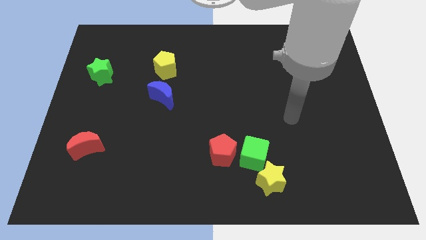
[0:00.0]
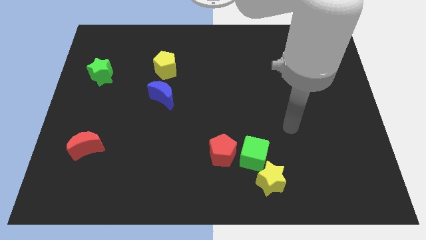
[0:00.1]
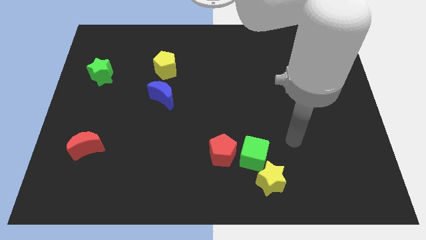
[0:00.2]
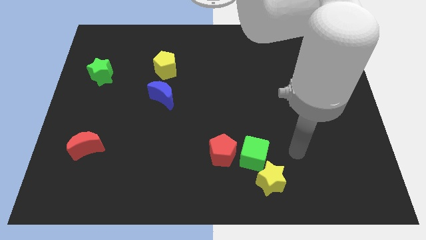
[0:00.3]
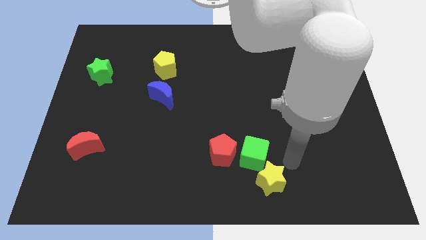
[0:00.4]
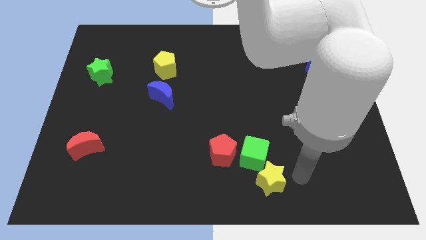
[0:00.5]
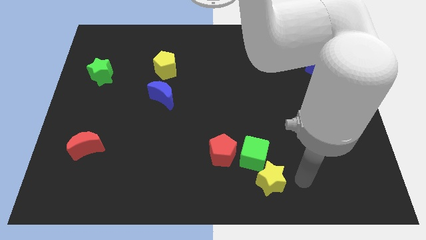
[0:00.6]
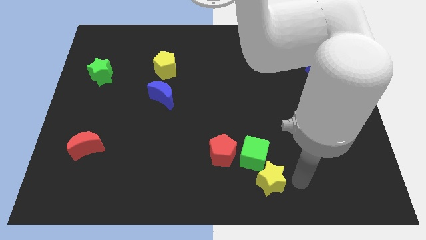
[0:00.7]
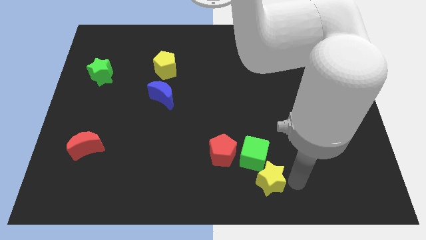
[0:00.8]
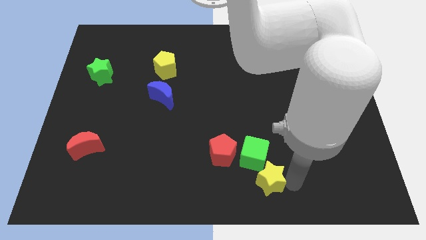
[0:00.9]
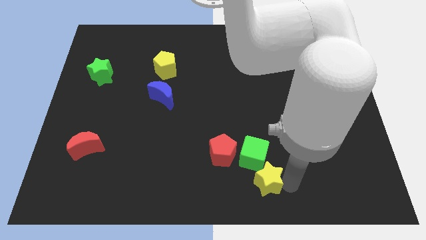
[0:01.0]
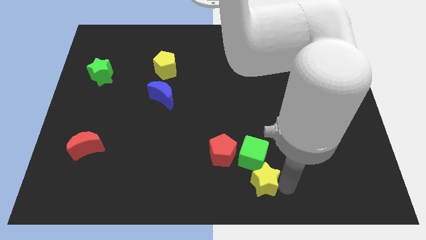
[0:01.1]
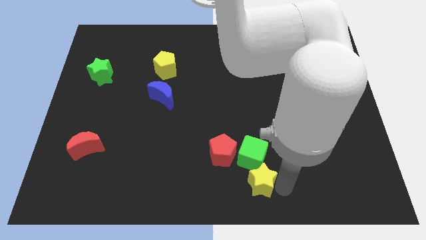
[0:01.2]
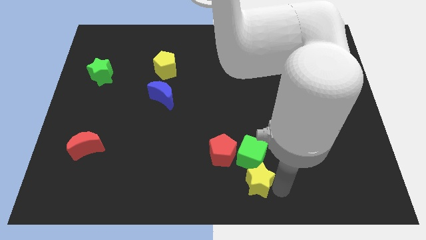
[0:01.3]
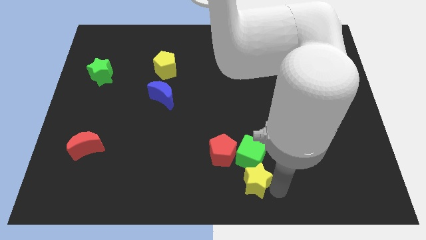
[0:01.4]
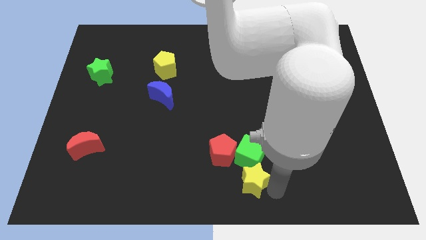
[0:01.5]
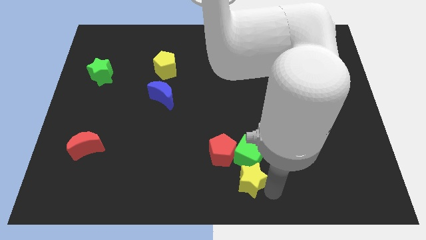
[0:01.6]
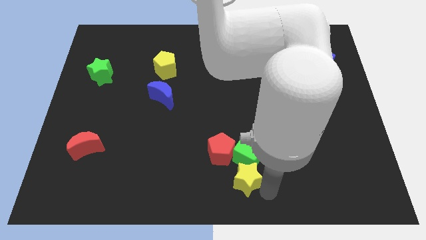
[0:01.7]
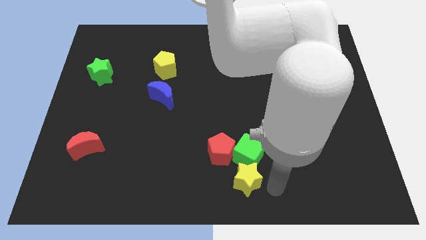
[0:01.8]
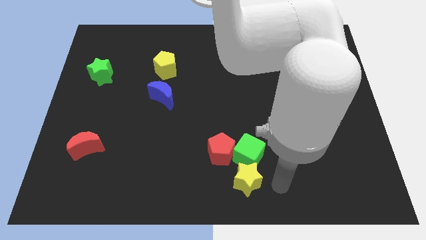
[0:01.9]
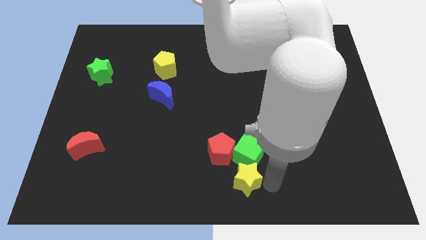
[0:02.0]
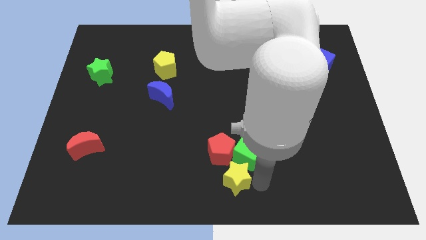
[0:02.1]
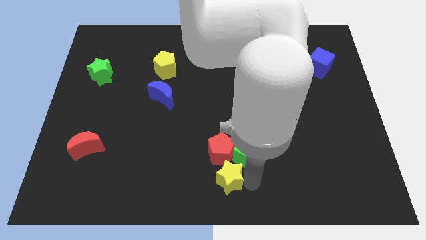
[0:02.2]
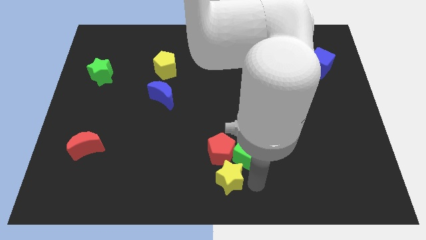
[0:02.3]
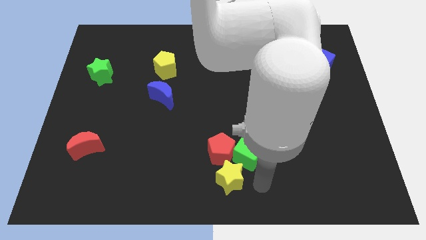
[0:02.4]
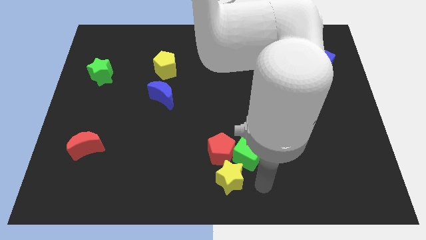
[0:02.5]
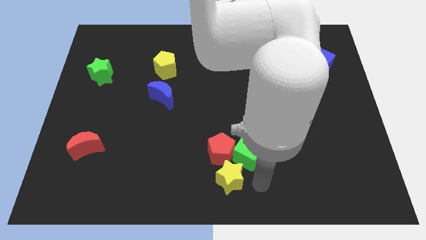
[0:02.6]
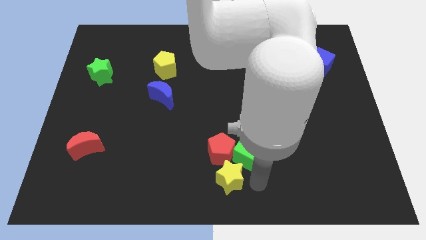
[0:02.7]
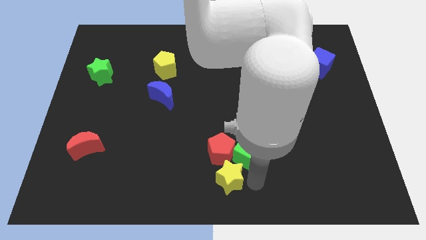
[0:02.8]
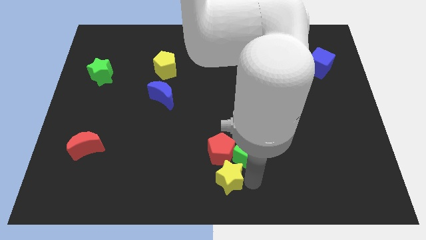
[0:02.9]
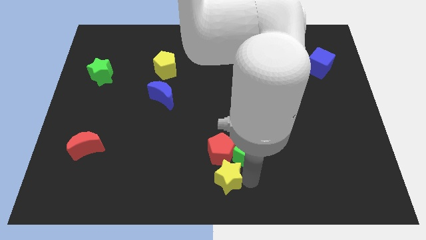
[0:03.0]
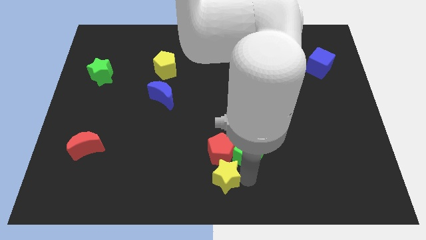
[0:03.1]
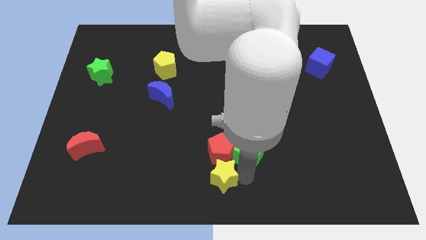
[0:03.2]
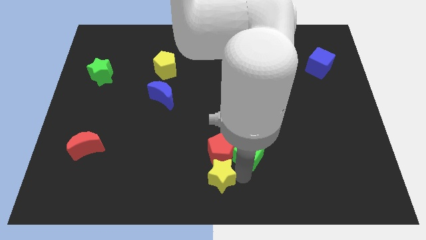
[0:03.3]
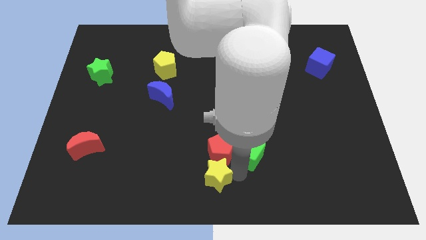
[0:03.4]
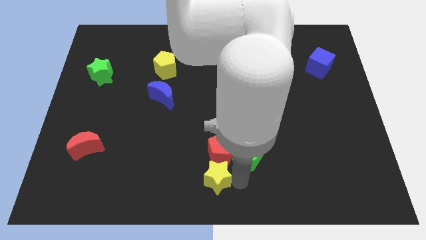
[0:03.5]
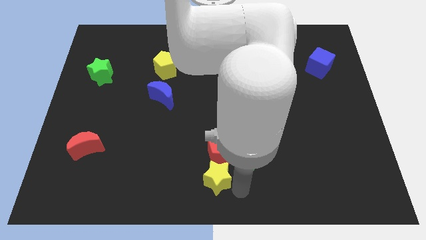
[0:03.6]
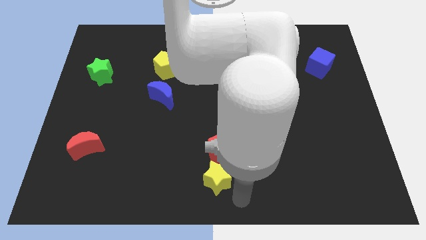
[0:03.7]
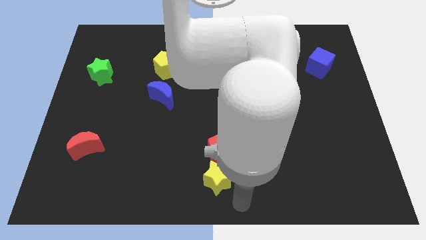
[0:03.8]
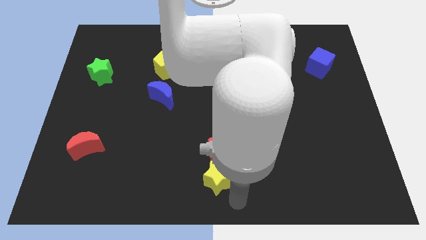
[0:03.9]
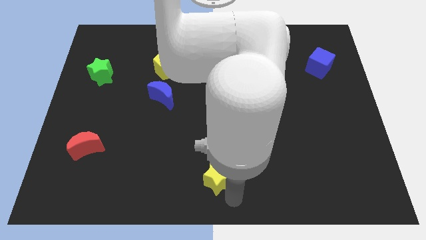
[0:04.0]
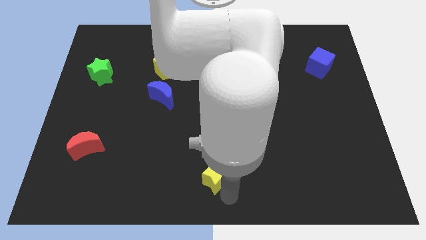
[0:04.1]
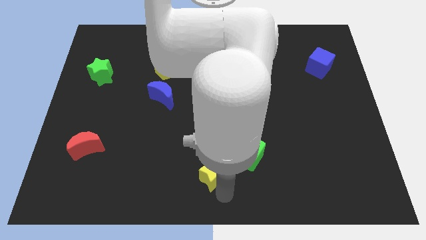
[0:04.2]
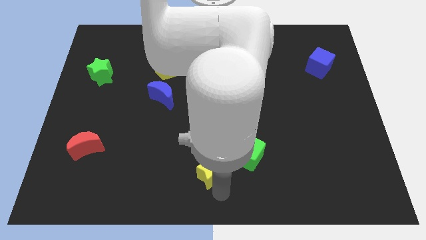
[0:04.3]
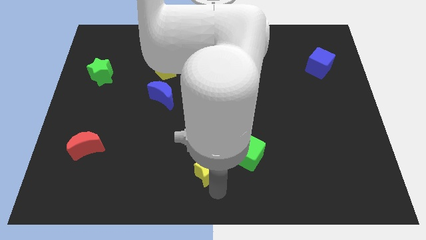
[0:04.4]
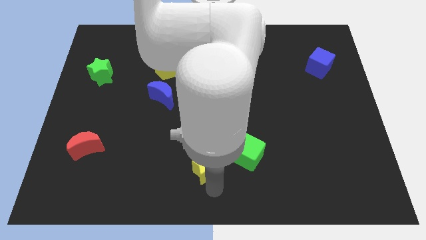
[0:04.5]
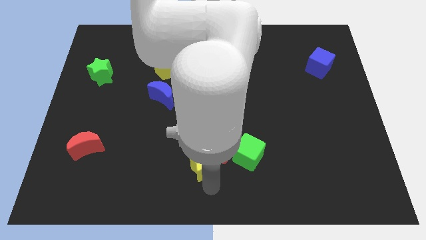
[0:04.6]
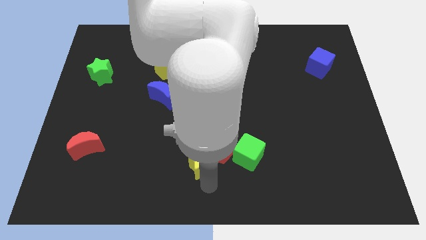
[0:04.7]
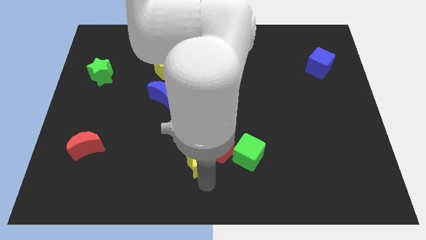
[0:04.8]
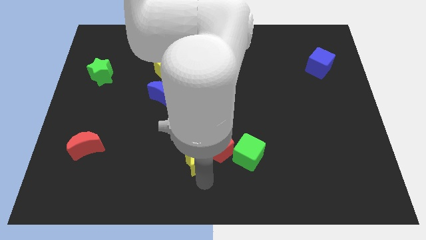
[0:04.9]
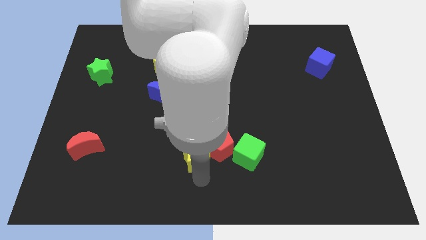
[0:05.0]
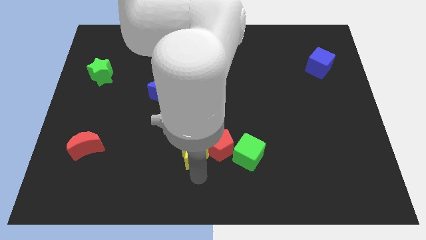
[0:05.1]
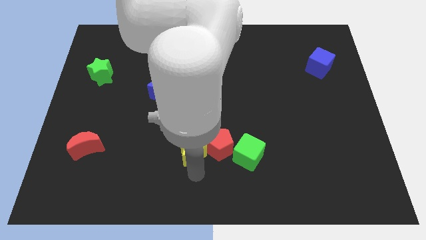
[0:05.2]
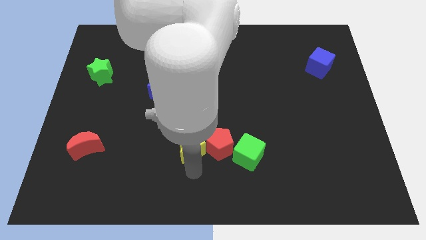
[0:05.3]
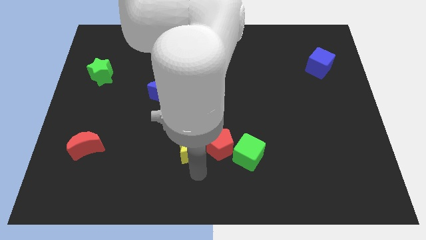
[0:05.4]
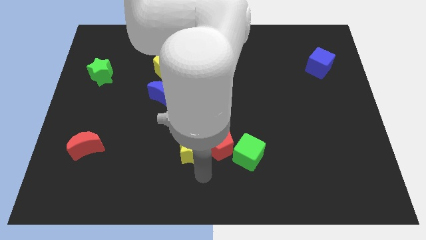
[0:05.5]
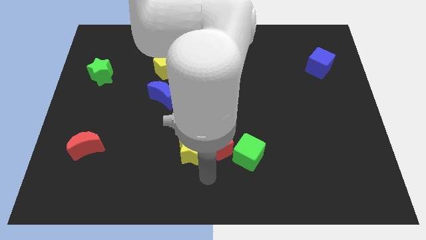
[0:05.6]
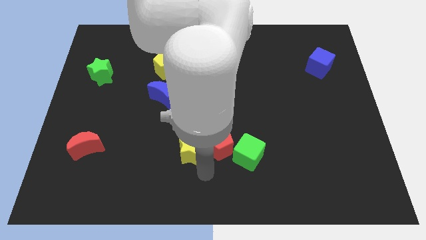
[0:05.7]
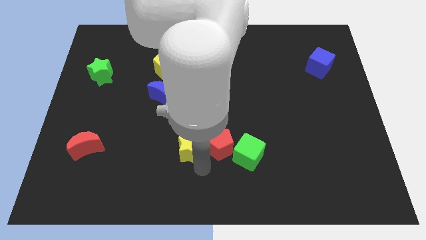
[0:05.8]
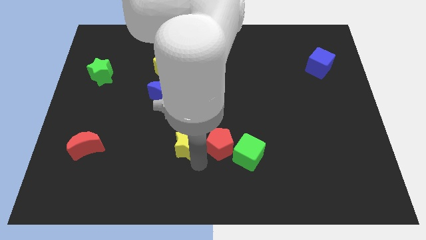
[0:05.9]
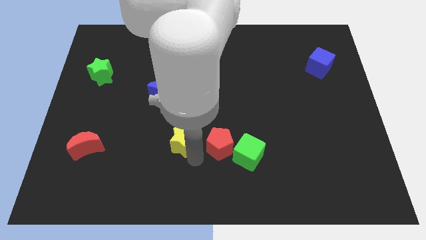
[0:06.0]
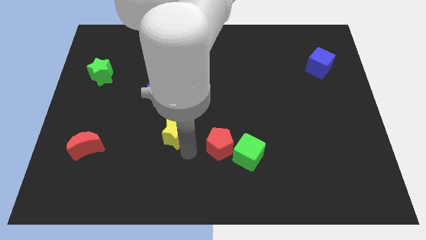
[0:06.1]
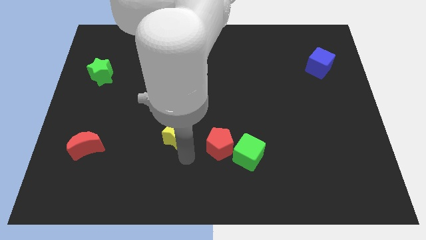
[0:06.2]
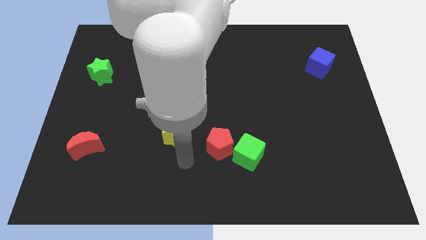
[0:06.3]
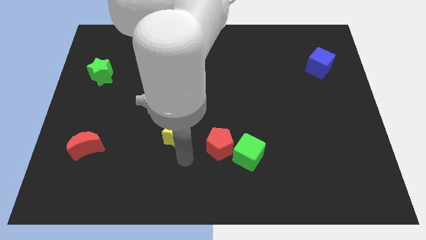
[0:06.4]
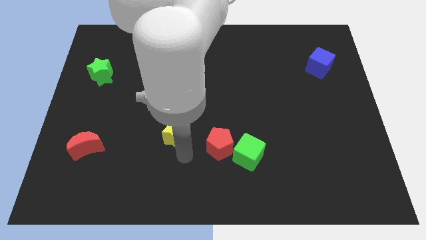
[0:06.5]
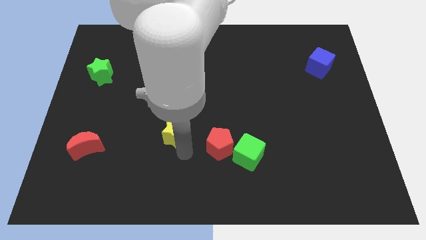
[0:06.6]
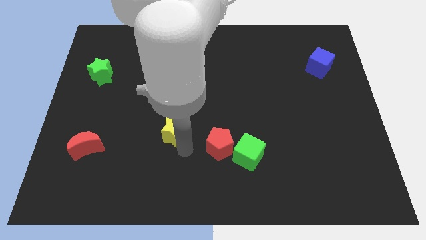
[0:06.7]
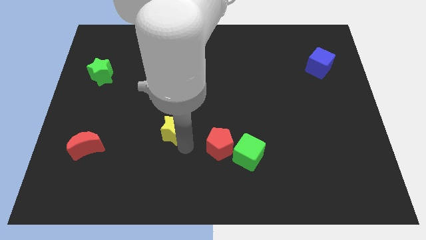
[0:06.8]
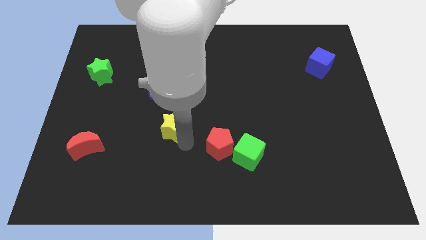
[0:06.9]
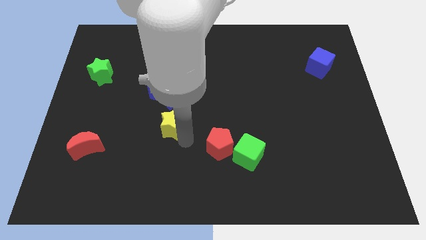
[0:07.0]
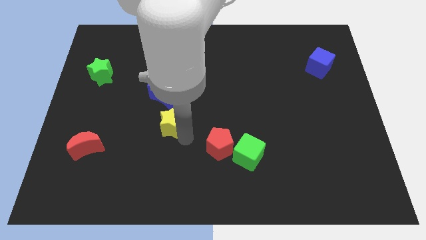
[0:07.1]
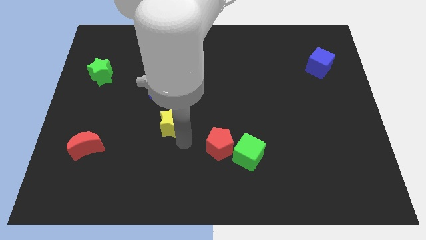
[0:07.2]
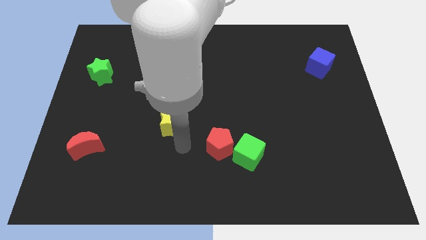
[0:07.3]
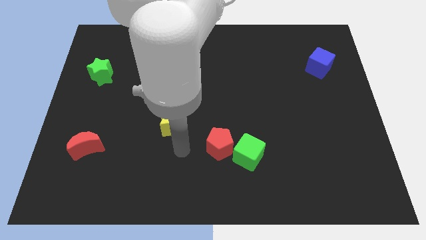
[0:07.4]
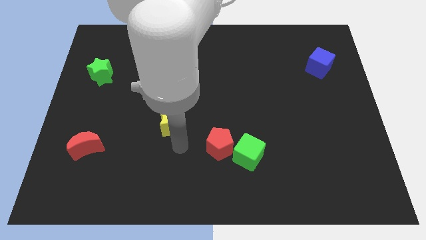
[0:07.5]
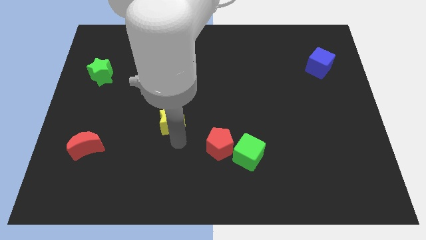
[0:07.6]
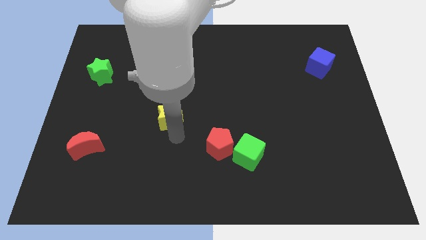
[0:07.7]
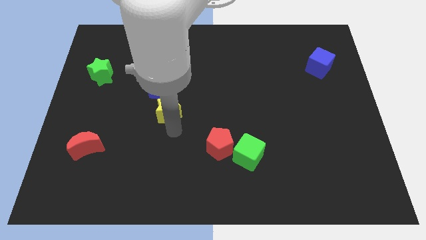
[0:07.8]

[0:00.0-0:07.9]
slide the yellow star towards the blue moon
